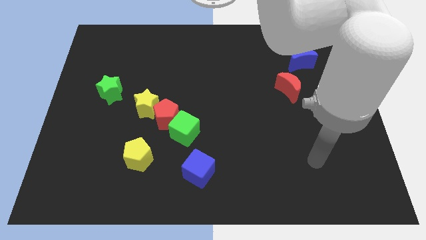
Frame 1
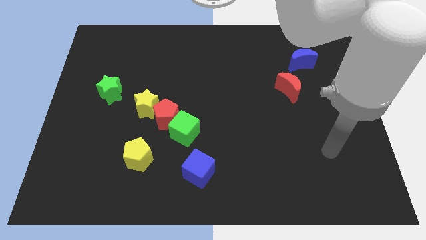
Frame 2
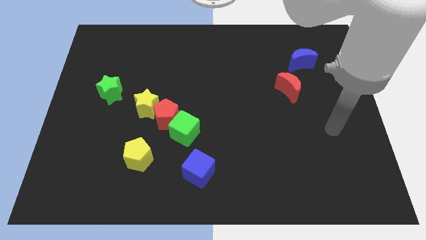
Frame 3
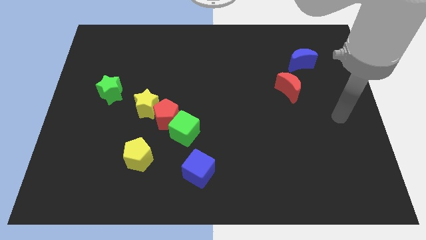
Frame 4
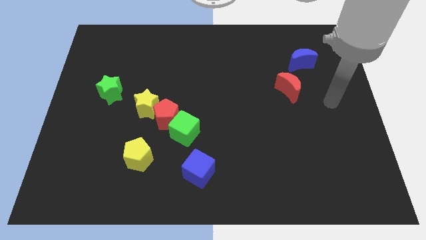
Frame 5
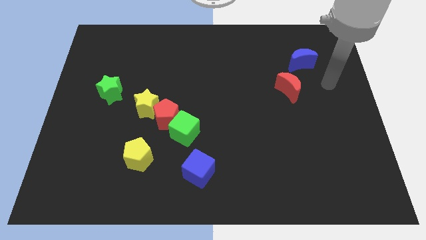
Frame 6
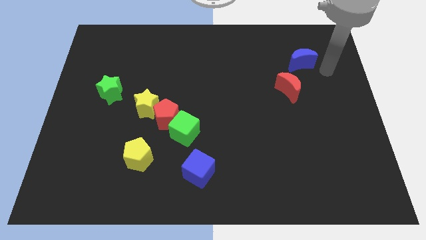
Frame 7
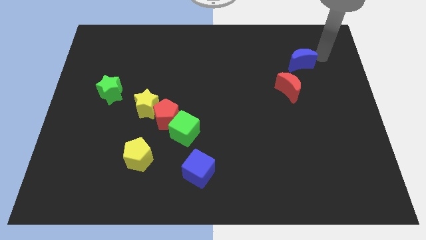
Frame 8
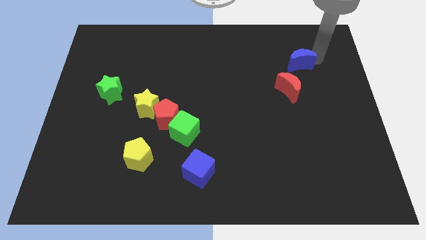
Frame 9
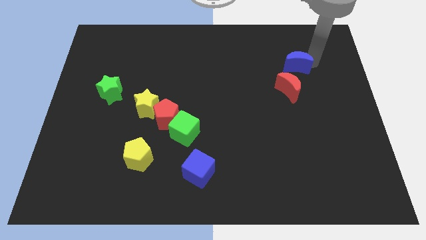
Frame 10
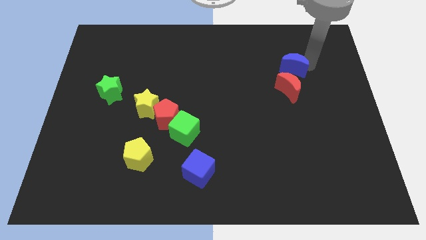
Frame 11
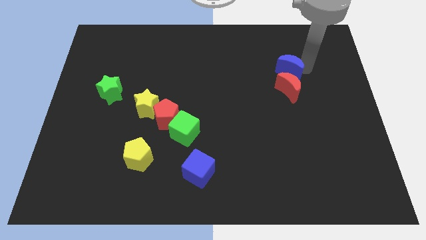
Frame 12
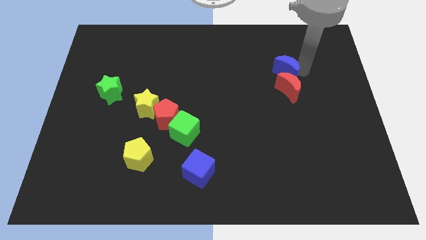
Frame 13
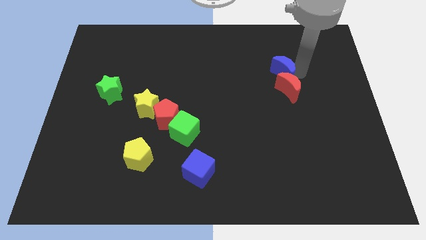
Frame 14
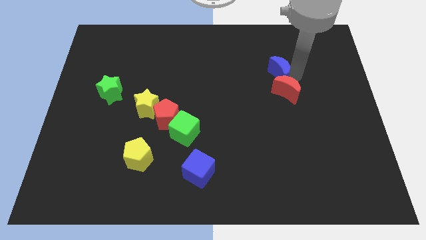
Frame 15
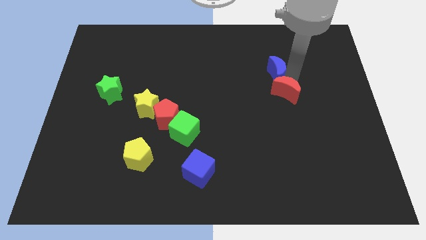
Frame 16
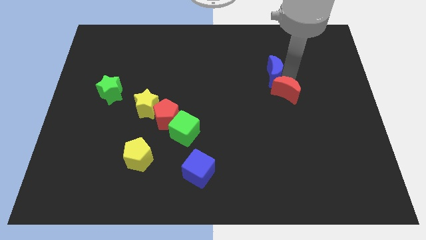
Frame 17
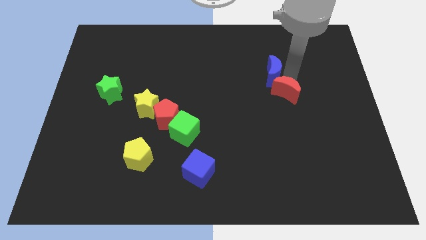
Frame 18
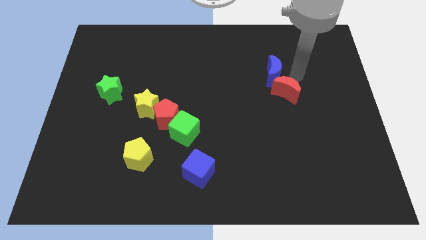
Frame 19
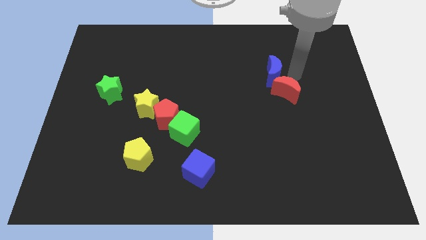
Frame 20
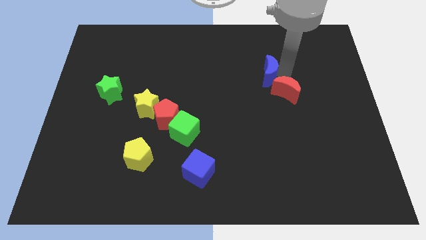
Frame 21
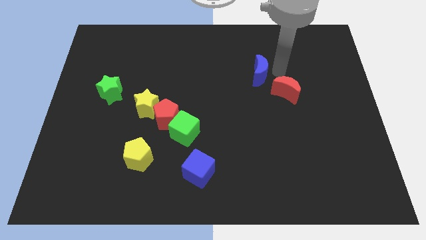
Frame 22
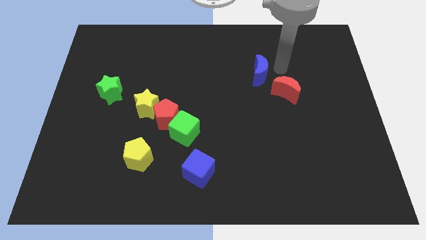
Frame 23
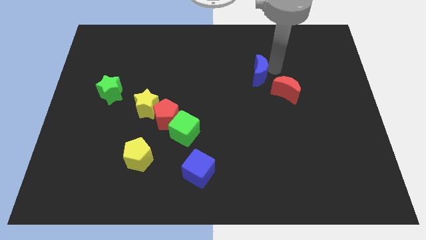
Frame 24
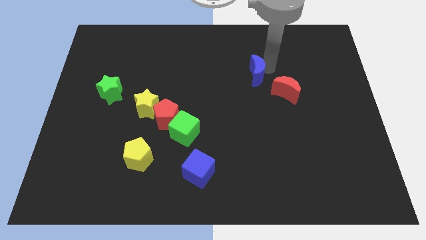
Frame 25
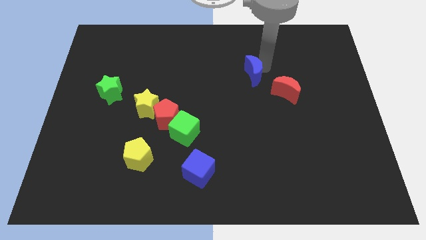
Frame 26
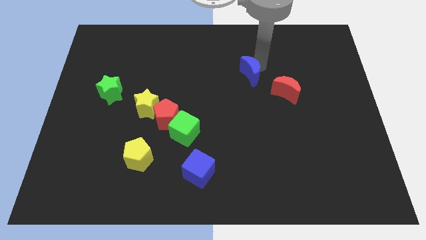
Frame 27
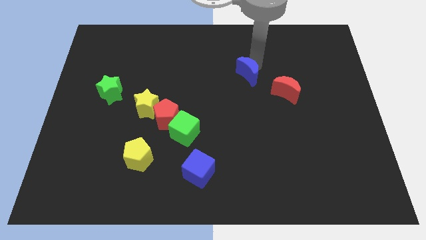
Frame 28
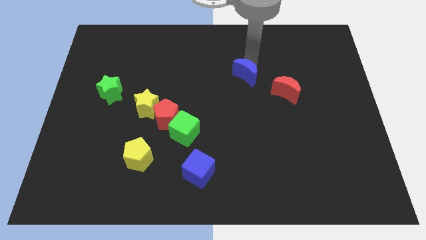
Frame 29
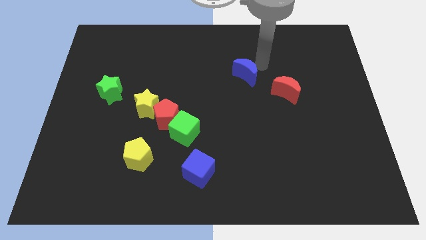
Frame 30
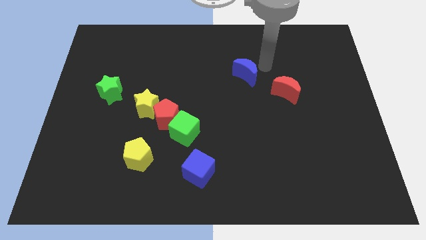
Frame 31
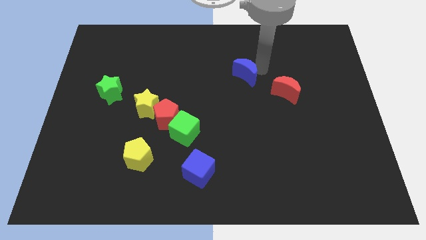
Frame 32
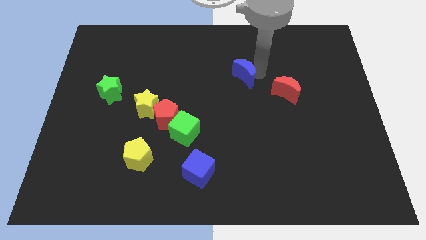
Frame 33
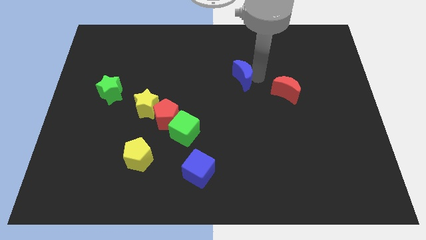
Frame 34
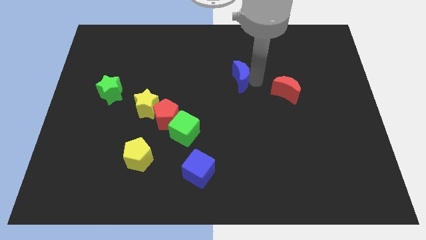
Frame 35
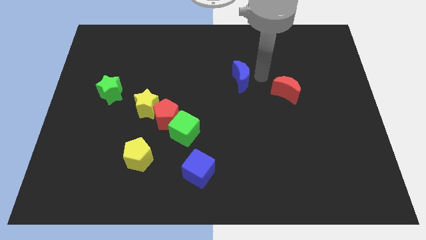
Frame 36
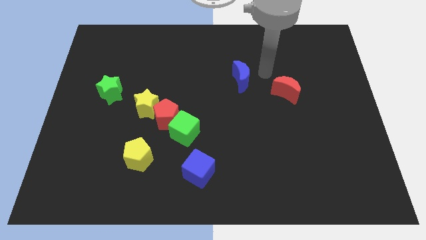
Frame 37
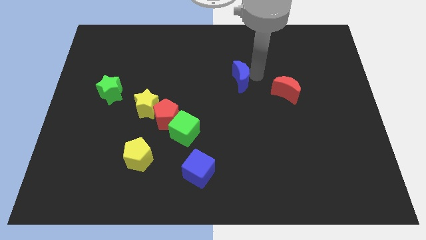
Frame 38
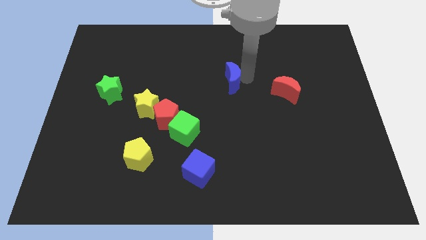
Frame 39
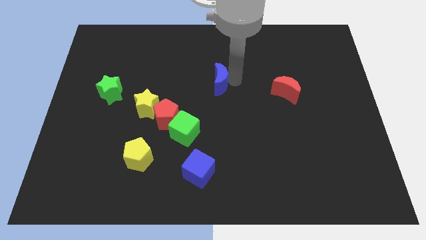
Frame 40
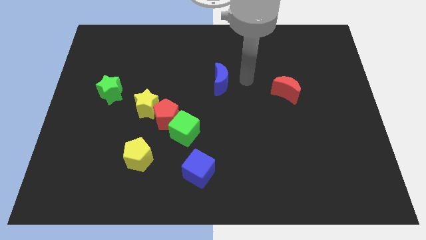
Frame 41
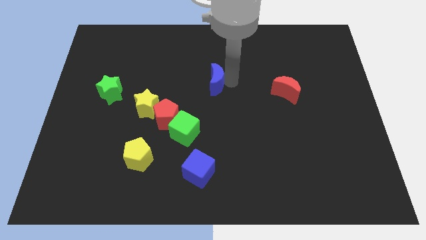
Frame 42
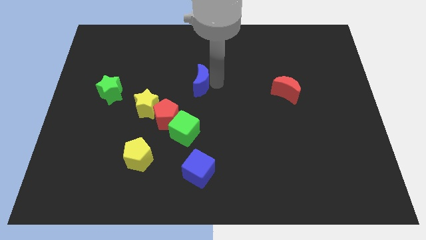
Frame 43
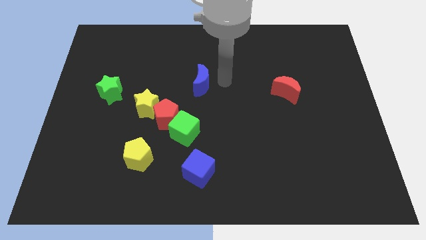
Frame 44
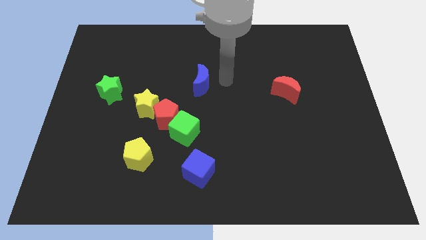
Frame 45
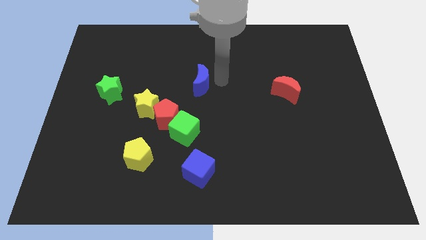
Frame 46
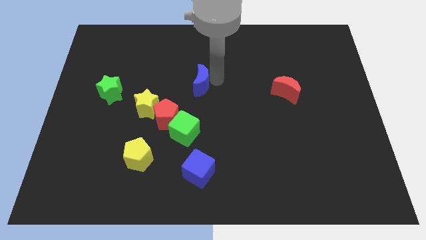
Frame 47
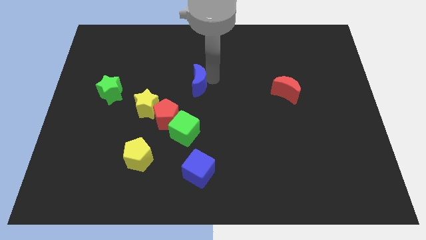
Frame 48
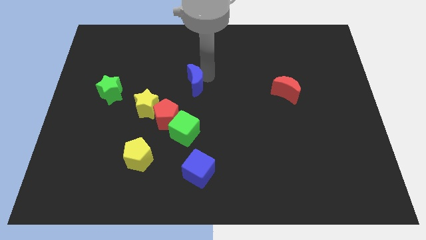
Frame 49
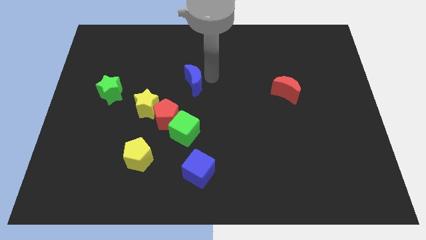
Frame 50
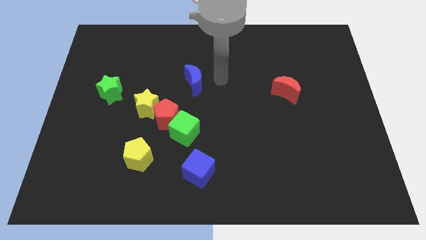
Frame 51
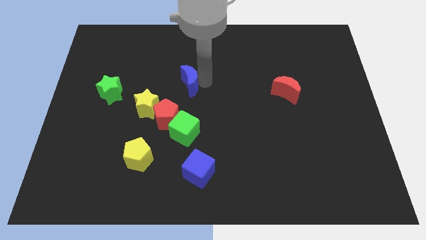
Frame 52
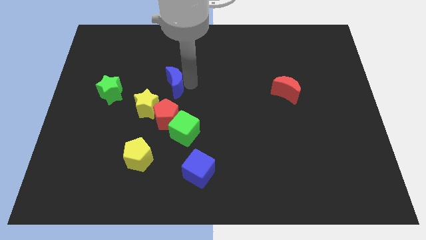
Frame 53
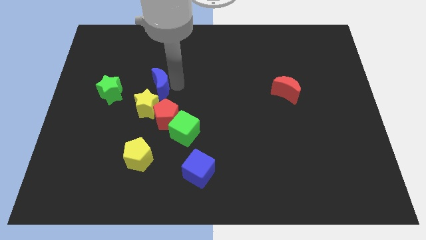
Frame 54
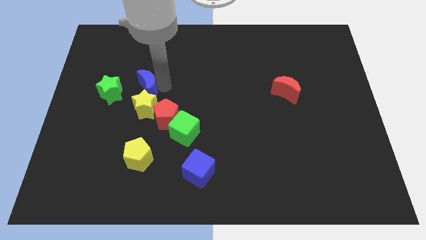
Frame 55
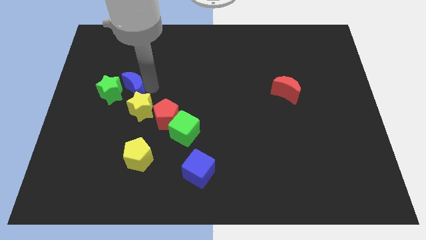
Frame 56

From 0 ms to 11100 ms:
slide the blue moon to the green star

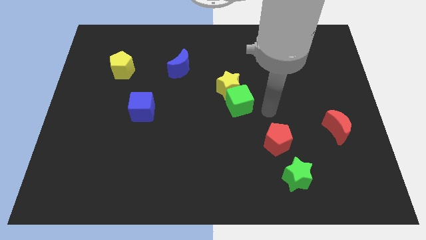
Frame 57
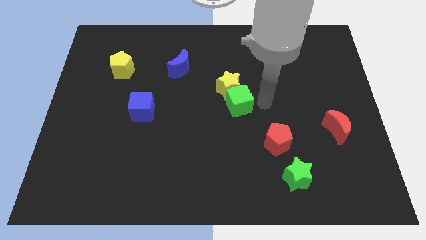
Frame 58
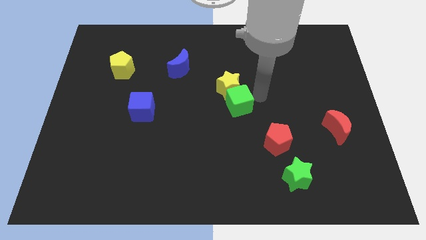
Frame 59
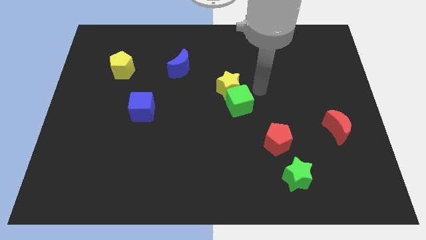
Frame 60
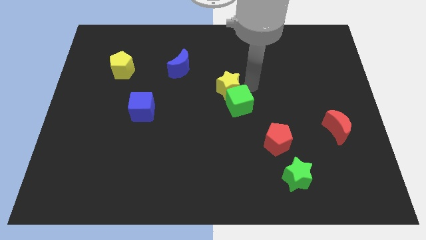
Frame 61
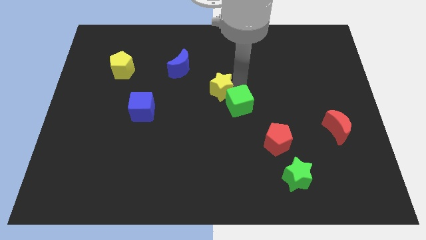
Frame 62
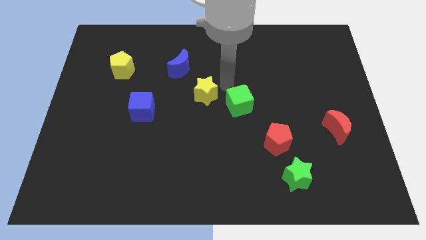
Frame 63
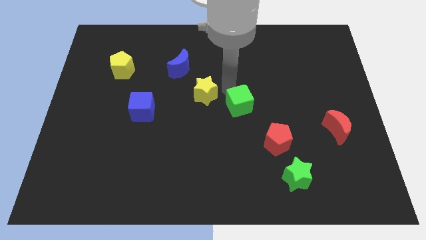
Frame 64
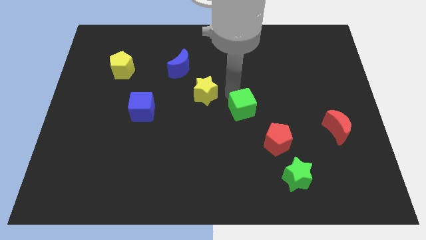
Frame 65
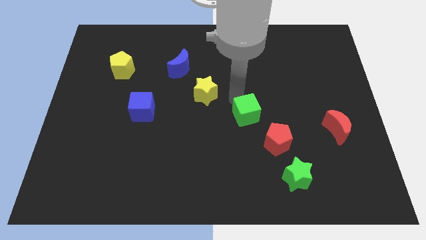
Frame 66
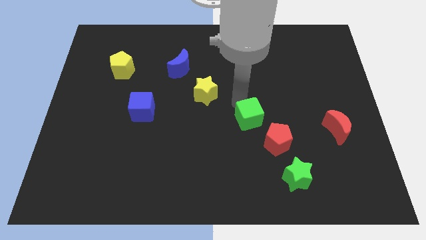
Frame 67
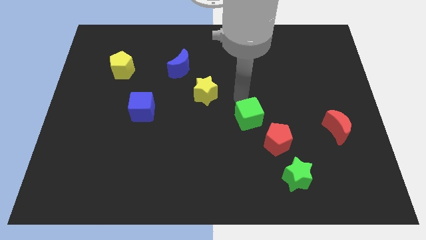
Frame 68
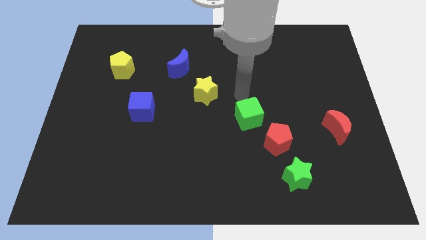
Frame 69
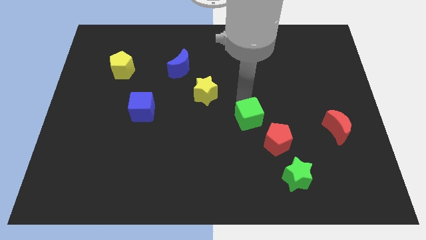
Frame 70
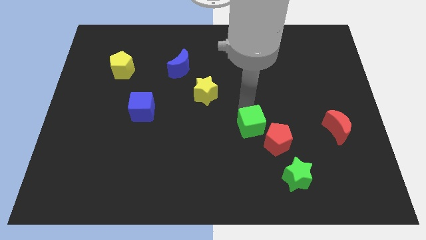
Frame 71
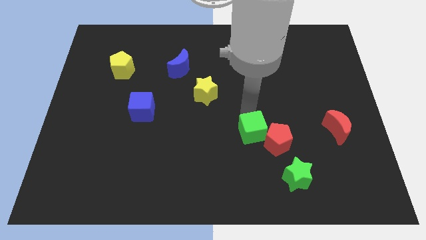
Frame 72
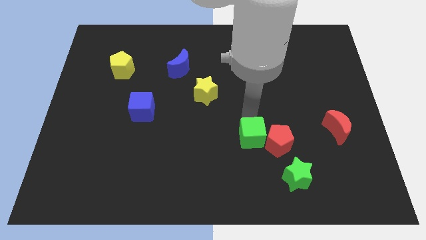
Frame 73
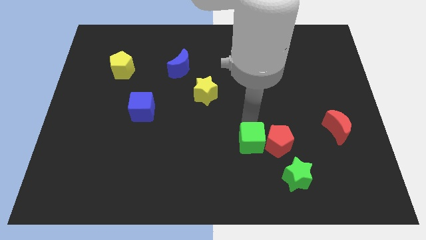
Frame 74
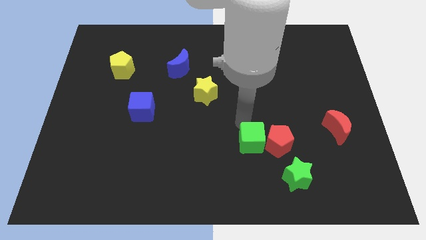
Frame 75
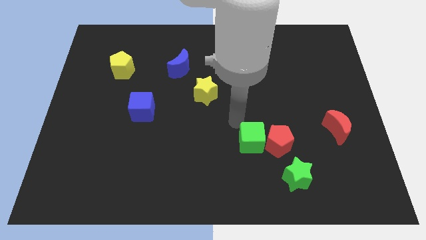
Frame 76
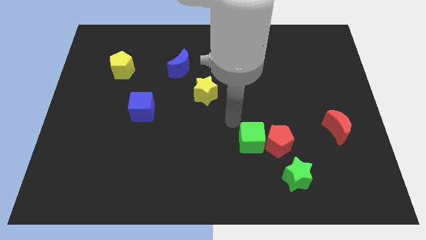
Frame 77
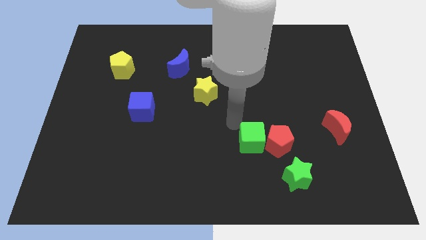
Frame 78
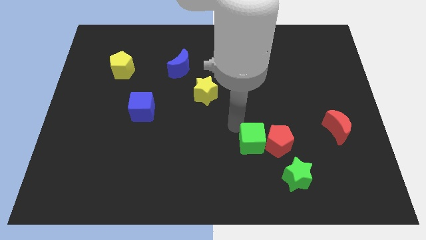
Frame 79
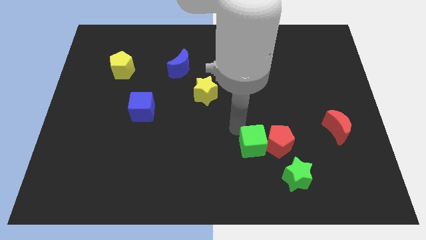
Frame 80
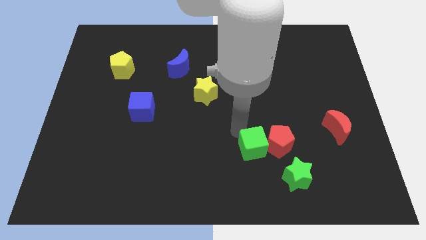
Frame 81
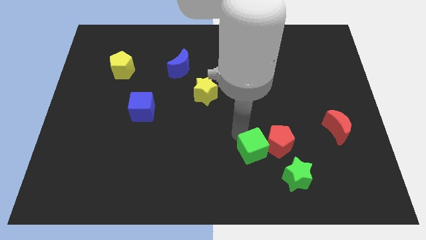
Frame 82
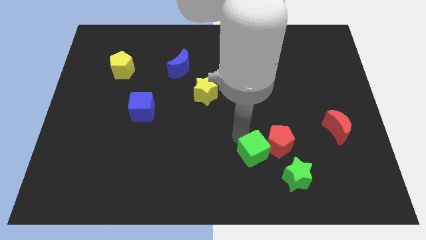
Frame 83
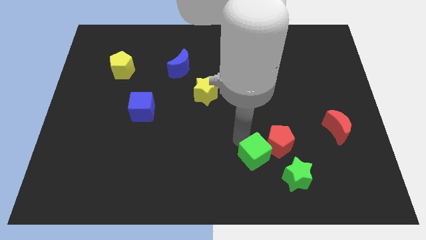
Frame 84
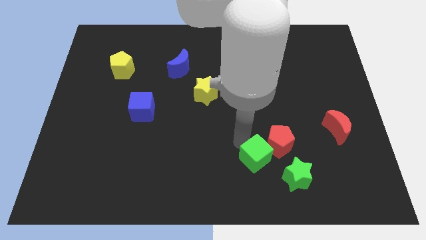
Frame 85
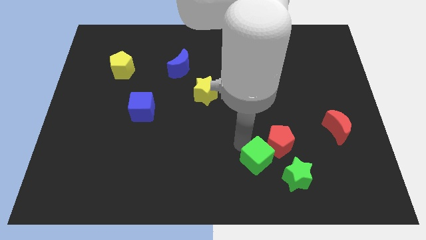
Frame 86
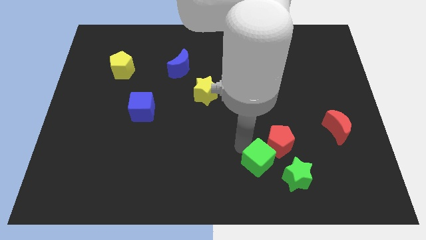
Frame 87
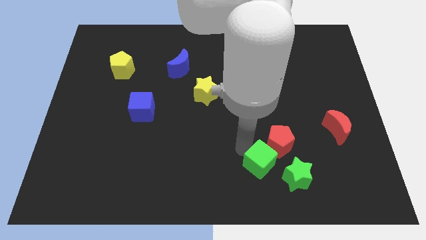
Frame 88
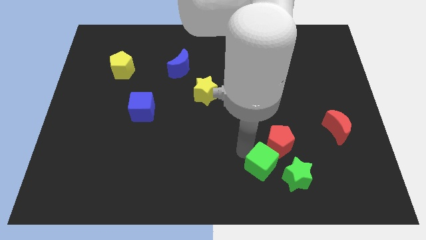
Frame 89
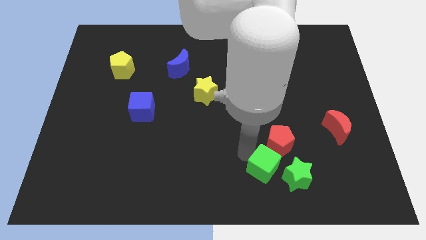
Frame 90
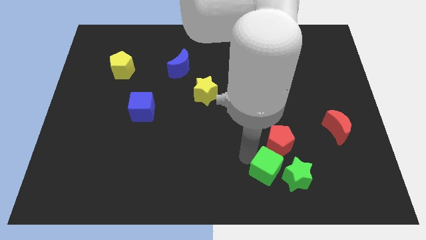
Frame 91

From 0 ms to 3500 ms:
move the green cube next to the green star
